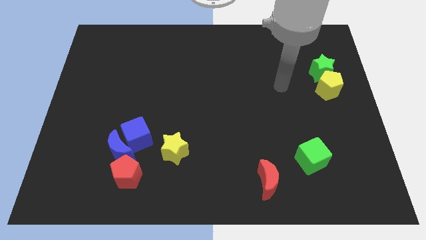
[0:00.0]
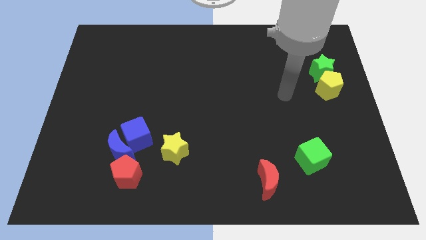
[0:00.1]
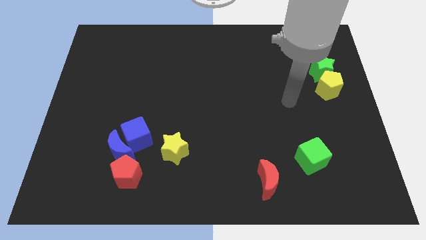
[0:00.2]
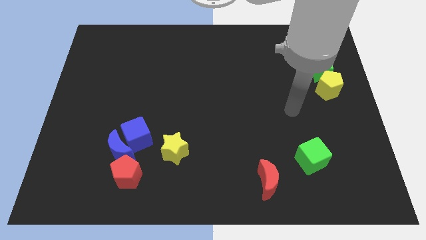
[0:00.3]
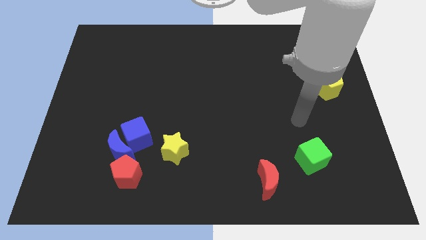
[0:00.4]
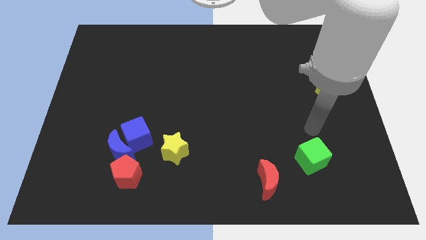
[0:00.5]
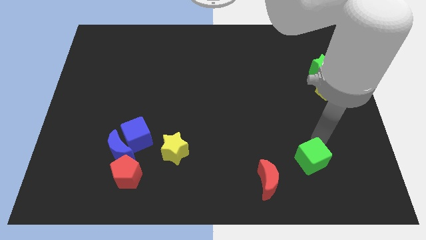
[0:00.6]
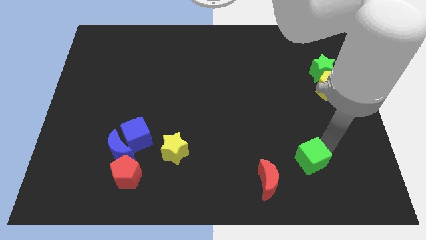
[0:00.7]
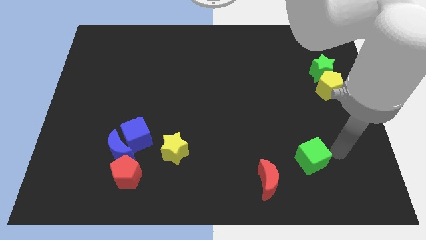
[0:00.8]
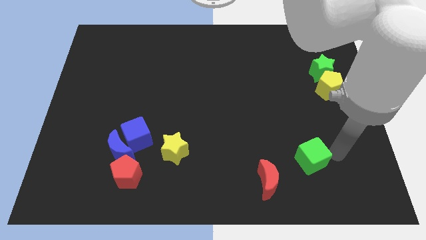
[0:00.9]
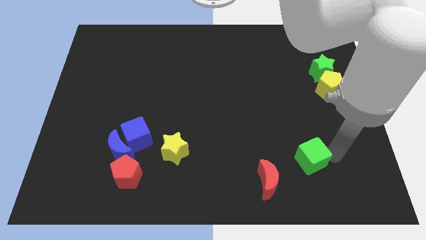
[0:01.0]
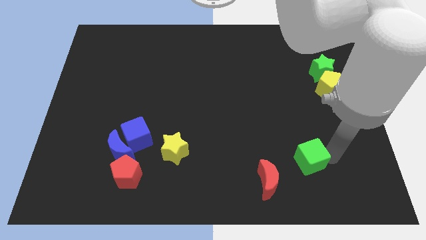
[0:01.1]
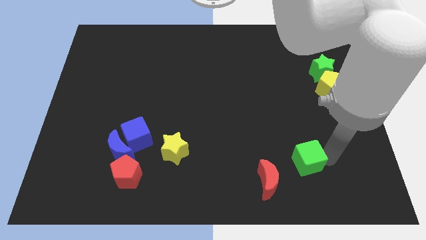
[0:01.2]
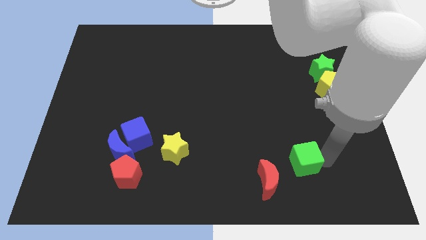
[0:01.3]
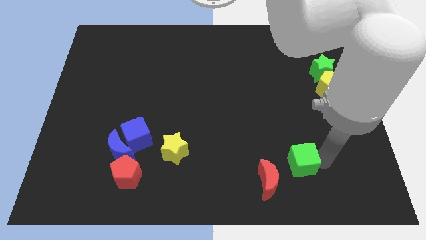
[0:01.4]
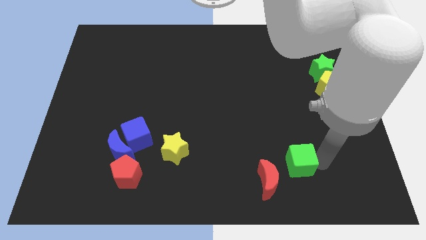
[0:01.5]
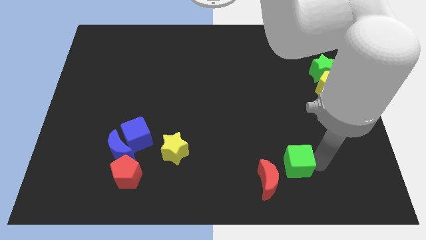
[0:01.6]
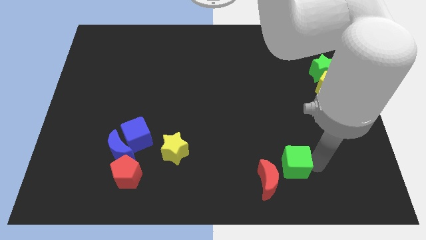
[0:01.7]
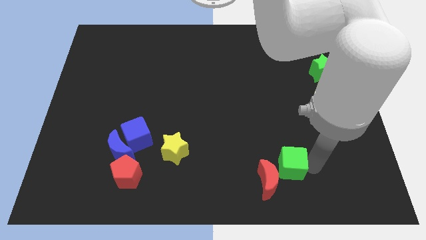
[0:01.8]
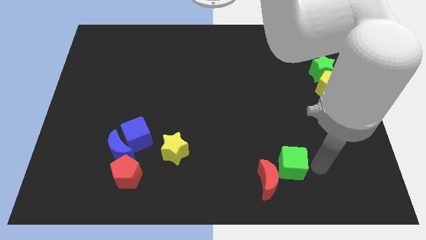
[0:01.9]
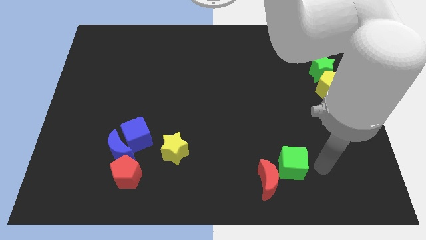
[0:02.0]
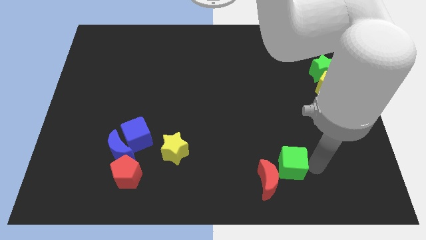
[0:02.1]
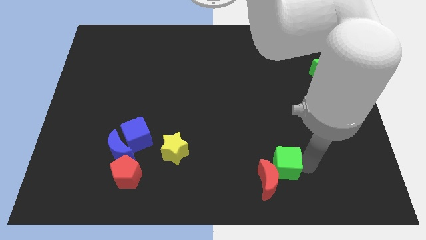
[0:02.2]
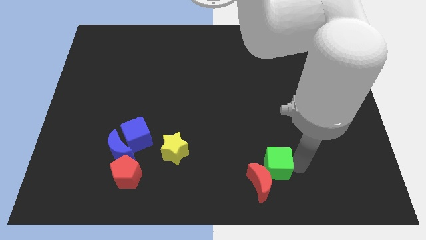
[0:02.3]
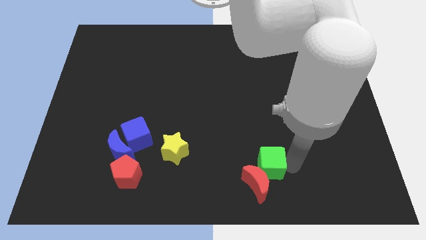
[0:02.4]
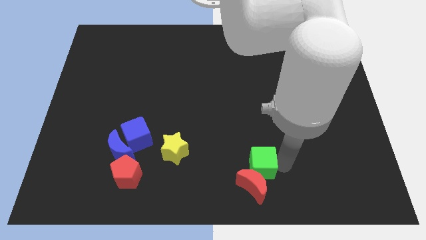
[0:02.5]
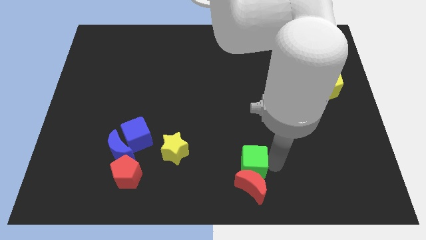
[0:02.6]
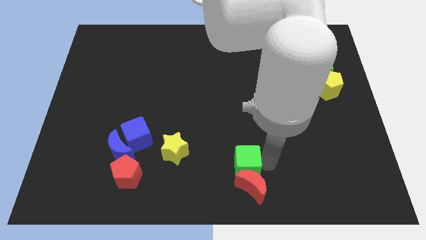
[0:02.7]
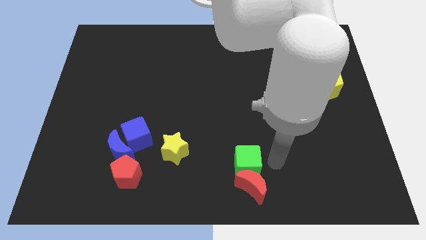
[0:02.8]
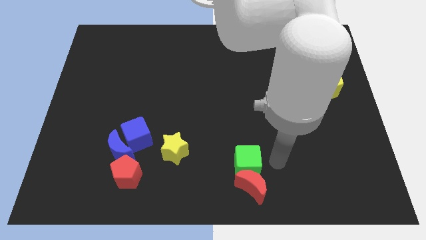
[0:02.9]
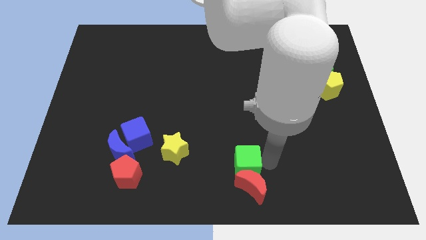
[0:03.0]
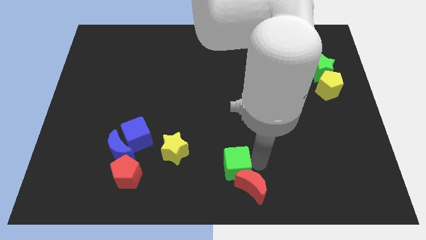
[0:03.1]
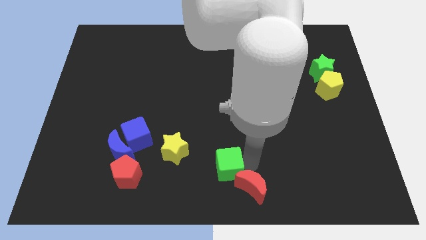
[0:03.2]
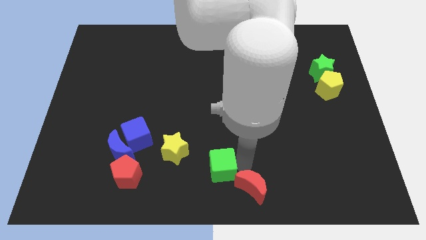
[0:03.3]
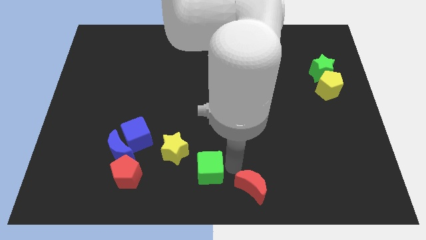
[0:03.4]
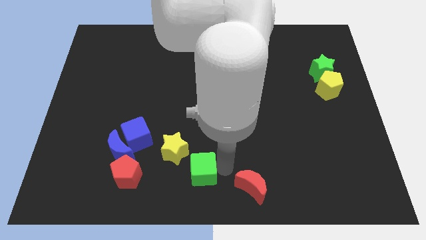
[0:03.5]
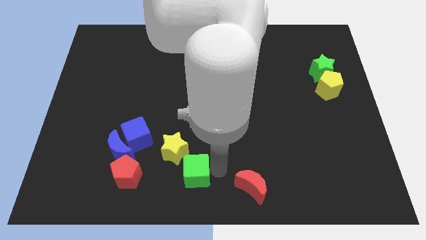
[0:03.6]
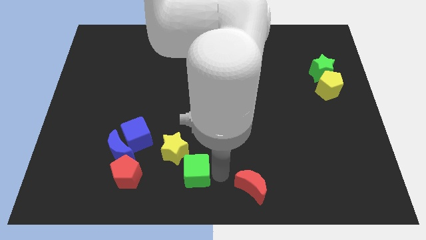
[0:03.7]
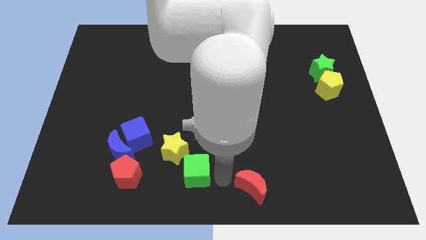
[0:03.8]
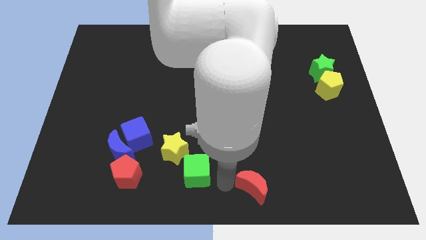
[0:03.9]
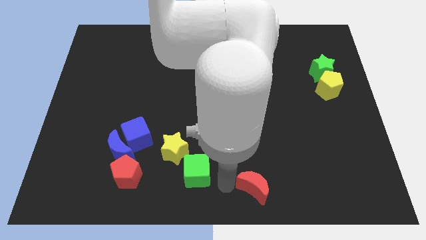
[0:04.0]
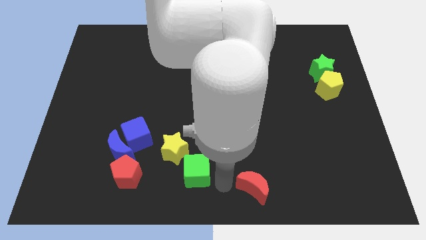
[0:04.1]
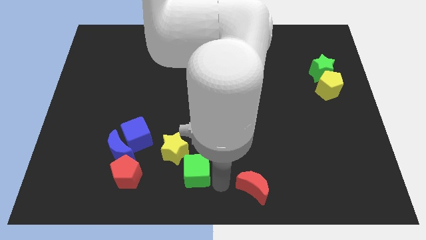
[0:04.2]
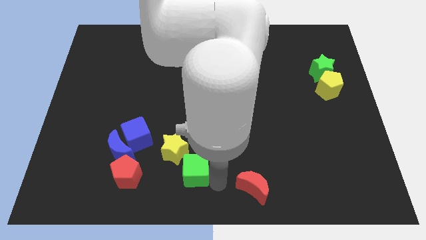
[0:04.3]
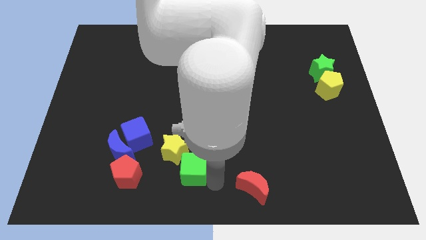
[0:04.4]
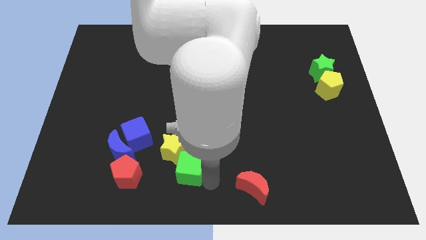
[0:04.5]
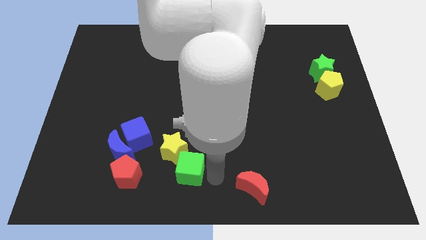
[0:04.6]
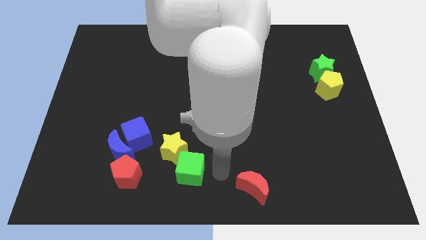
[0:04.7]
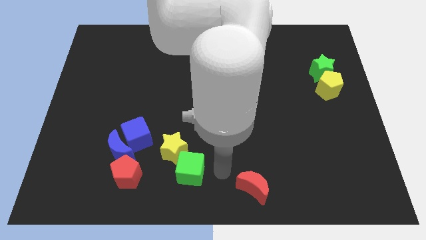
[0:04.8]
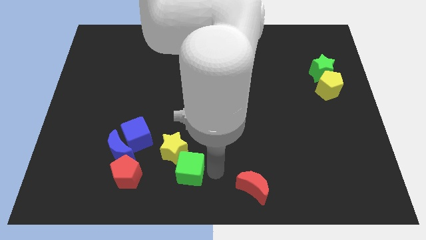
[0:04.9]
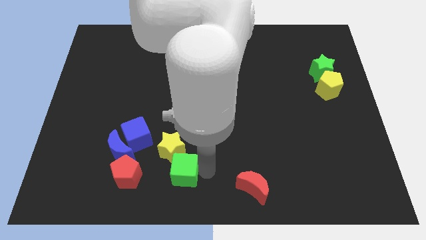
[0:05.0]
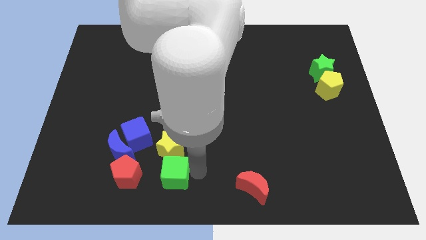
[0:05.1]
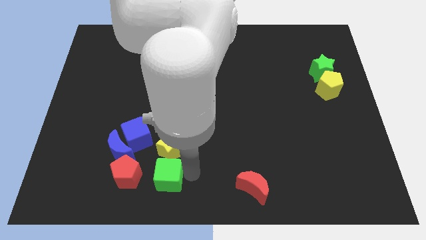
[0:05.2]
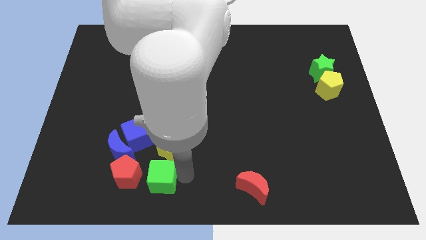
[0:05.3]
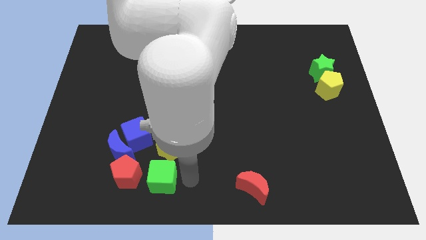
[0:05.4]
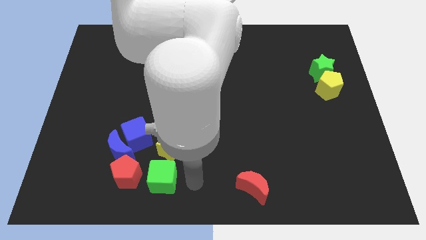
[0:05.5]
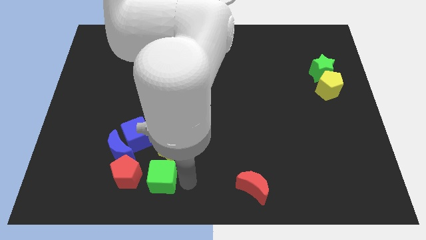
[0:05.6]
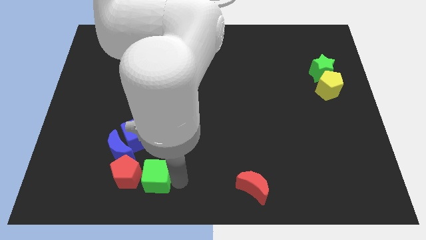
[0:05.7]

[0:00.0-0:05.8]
push the green cube close to the red pentagon

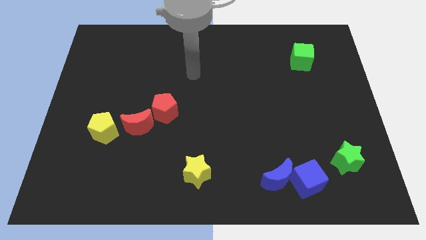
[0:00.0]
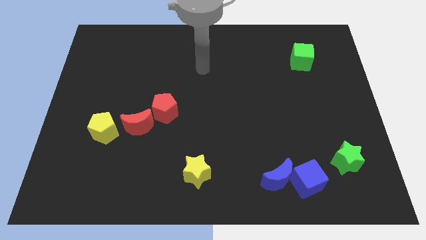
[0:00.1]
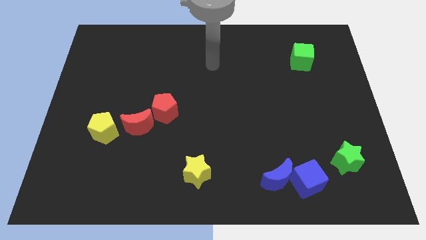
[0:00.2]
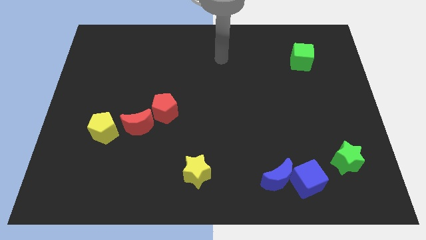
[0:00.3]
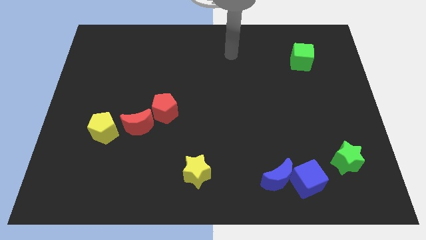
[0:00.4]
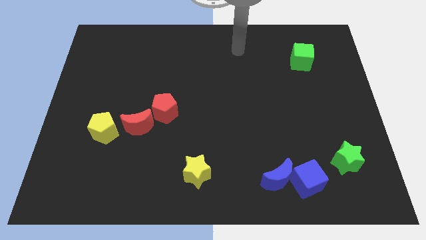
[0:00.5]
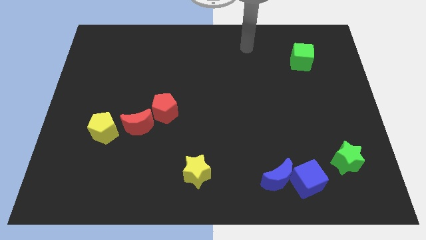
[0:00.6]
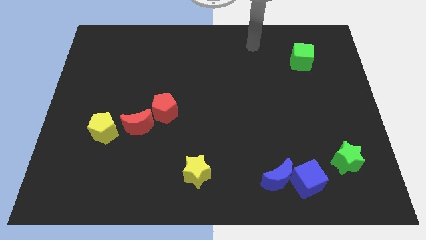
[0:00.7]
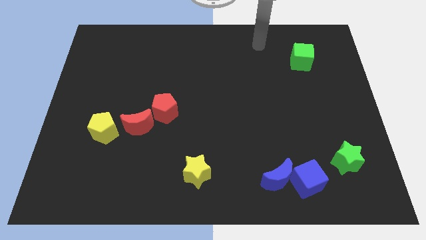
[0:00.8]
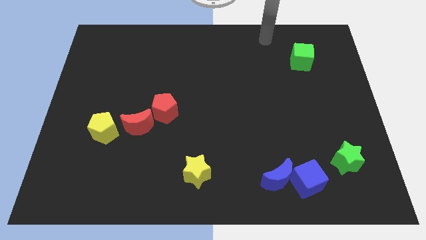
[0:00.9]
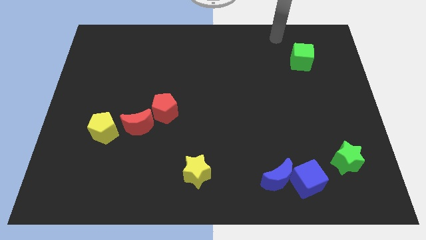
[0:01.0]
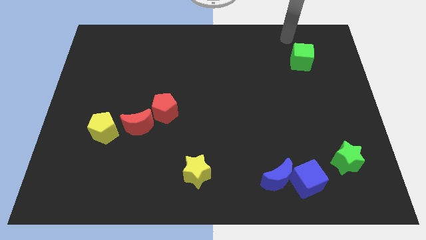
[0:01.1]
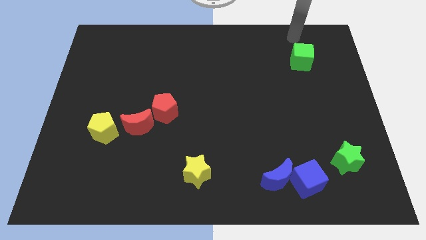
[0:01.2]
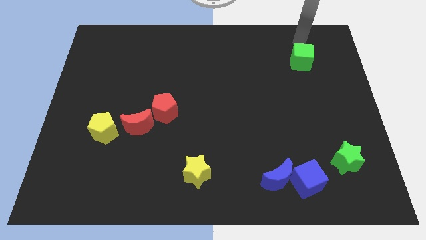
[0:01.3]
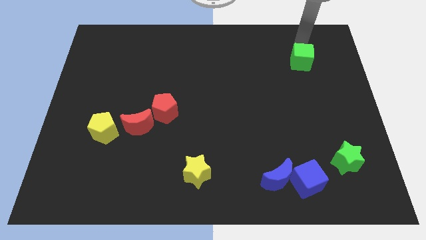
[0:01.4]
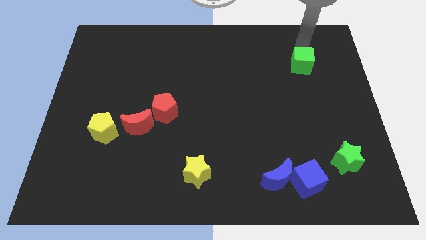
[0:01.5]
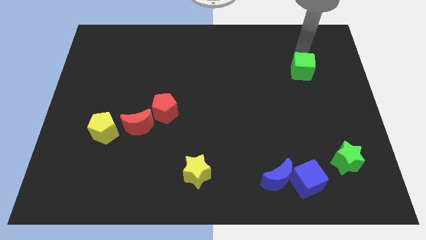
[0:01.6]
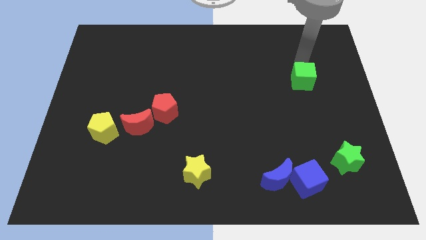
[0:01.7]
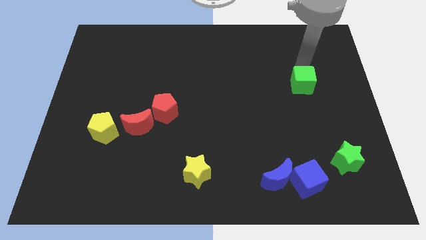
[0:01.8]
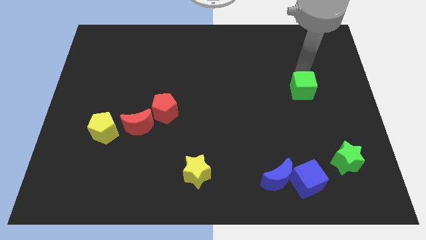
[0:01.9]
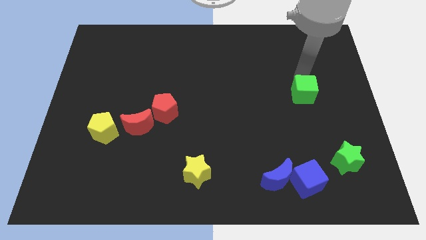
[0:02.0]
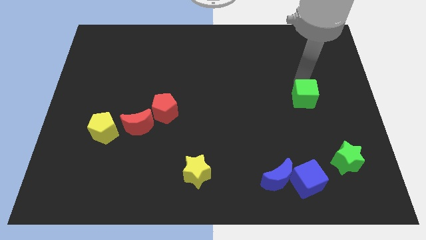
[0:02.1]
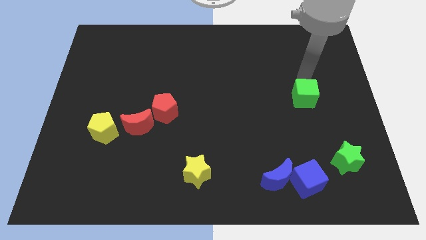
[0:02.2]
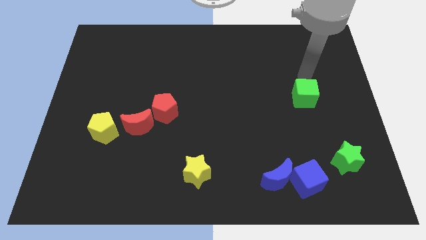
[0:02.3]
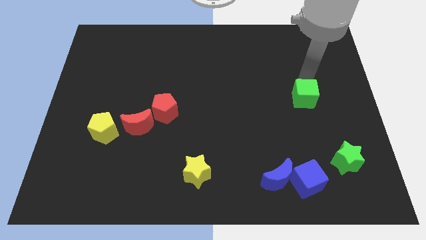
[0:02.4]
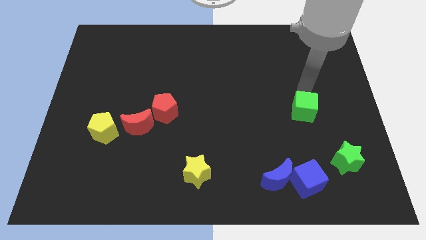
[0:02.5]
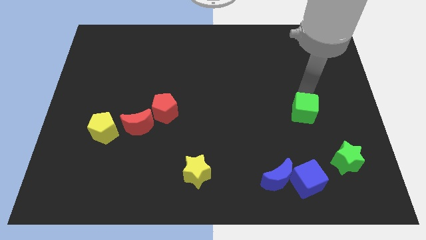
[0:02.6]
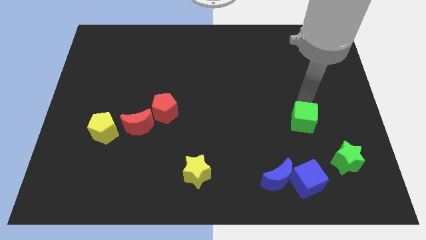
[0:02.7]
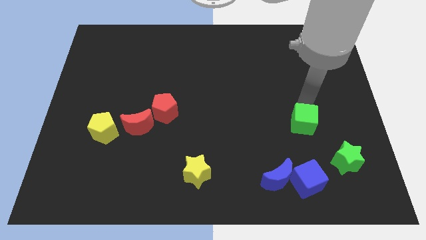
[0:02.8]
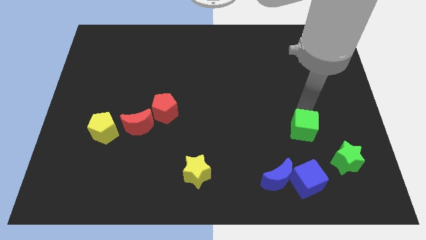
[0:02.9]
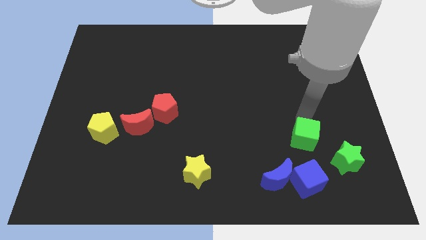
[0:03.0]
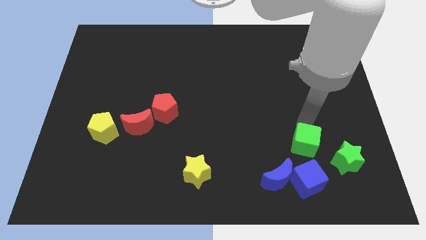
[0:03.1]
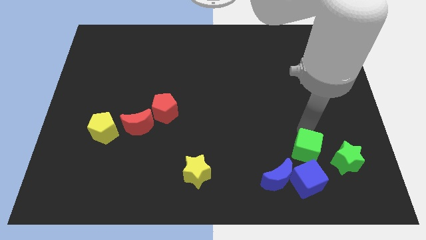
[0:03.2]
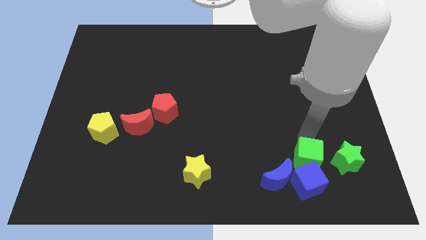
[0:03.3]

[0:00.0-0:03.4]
move the green cube next to the blue cube
